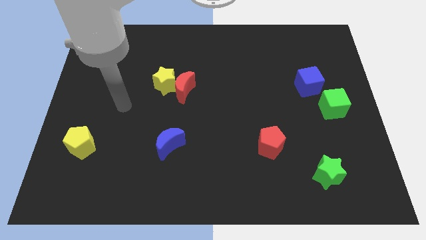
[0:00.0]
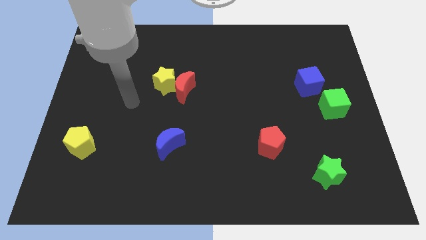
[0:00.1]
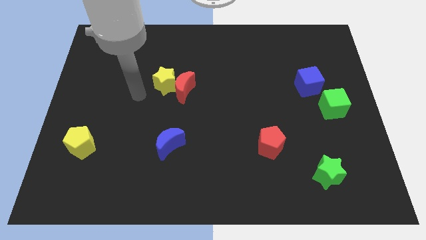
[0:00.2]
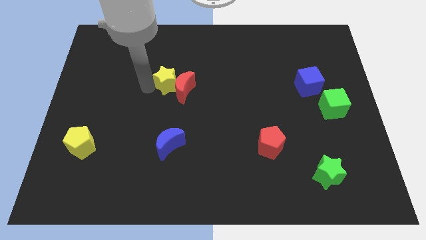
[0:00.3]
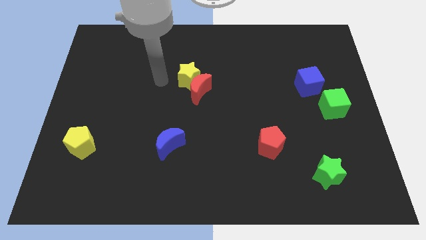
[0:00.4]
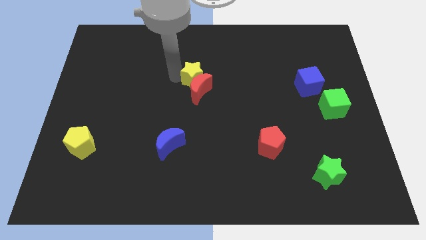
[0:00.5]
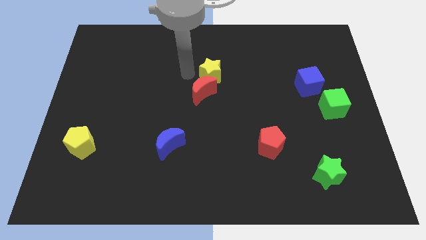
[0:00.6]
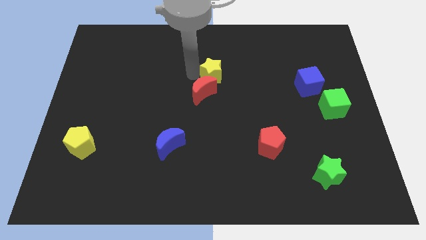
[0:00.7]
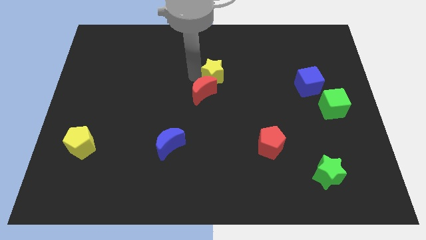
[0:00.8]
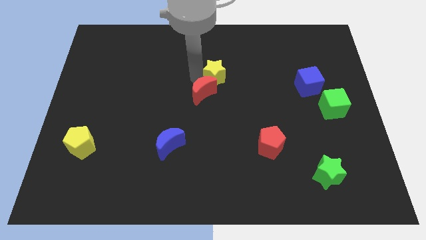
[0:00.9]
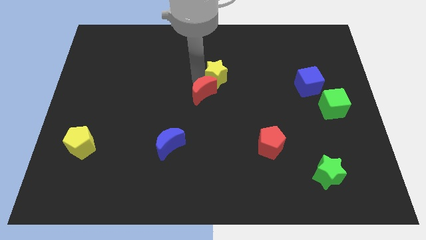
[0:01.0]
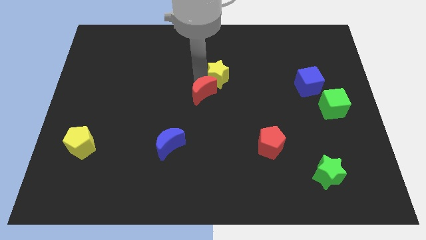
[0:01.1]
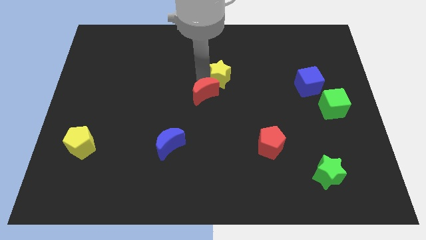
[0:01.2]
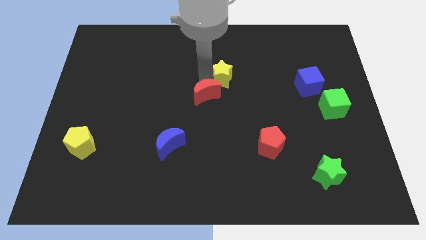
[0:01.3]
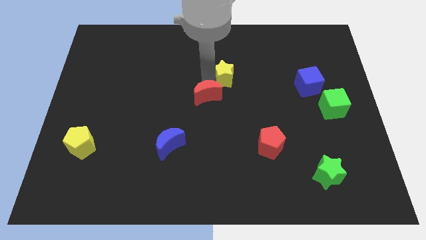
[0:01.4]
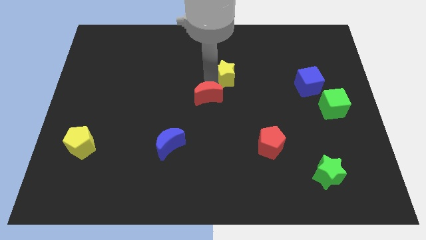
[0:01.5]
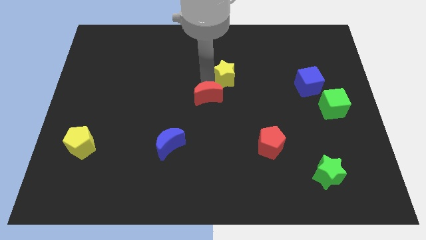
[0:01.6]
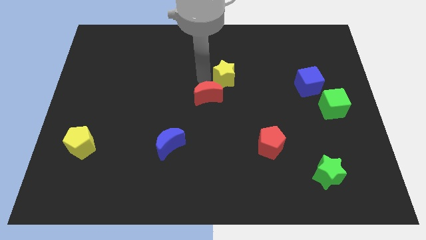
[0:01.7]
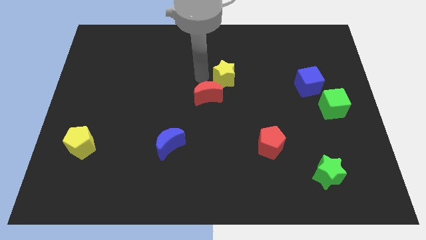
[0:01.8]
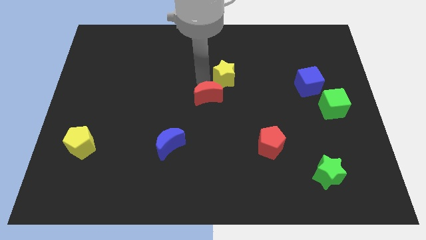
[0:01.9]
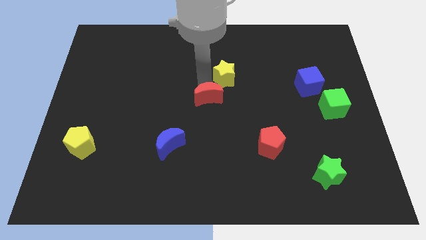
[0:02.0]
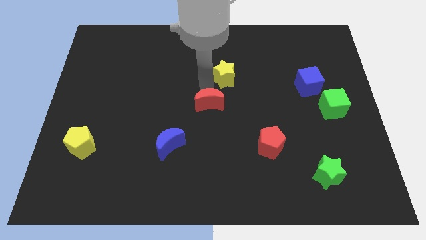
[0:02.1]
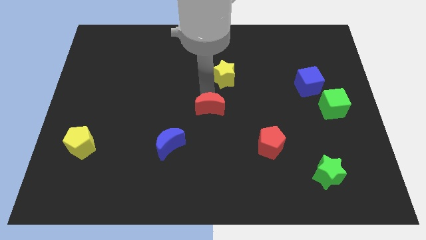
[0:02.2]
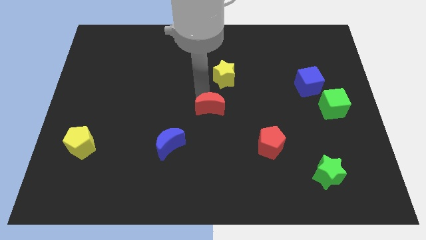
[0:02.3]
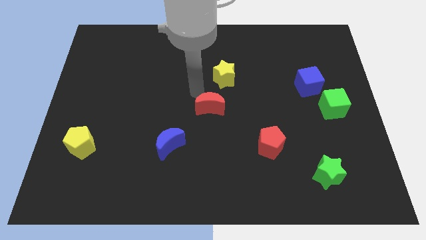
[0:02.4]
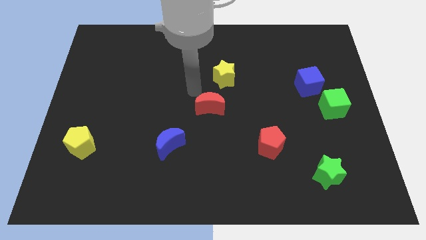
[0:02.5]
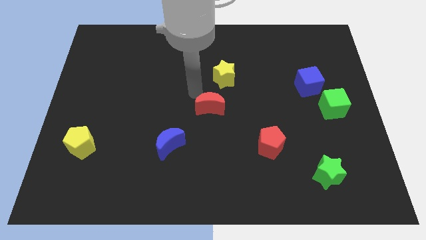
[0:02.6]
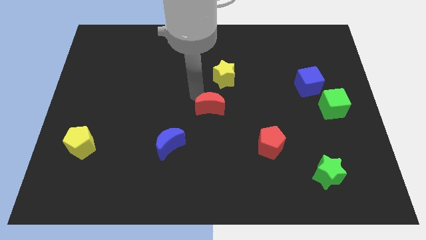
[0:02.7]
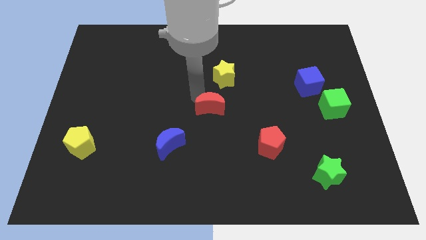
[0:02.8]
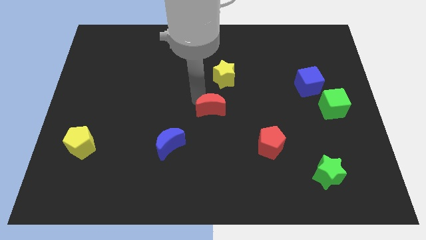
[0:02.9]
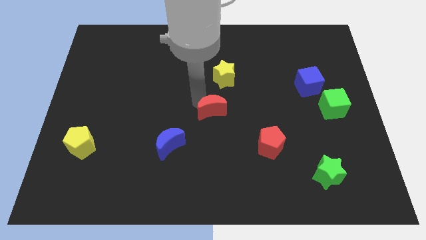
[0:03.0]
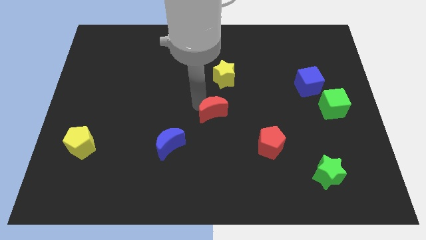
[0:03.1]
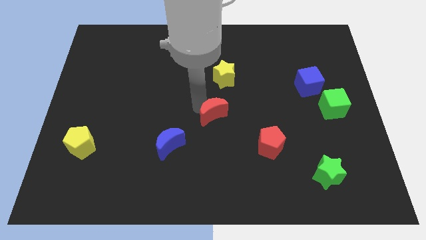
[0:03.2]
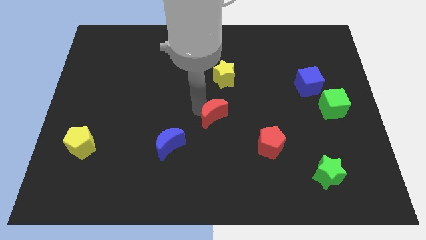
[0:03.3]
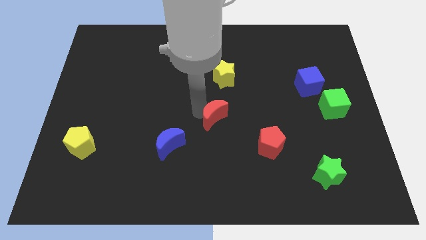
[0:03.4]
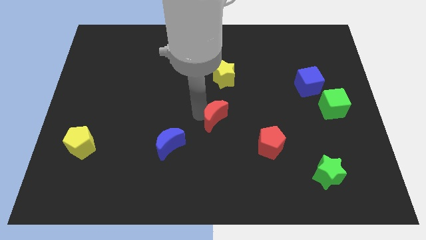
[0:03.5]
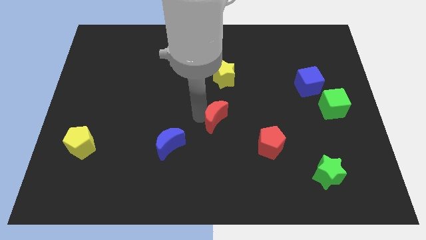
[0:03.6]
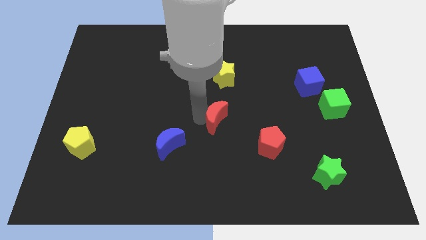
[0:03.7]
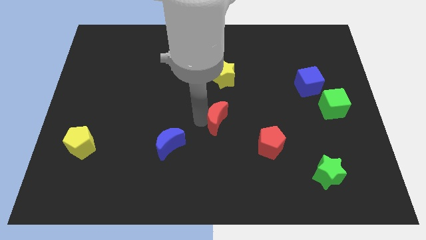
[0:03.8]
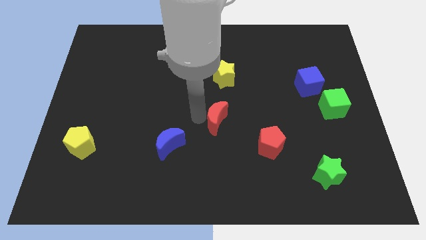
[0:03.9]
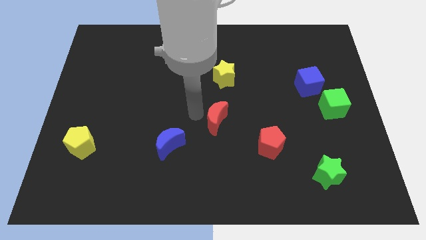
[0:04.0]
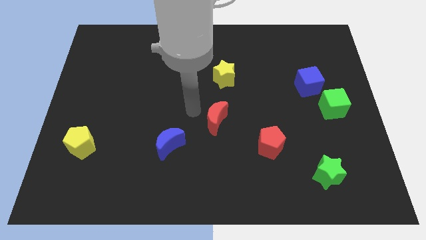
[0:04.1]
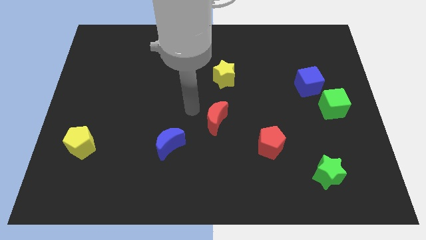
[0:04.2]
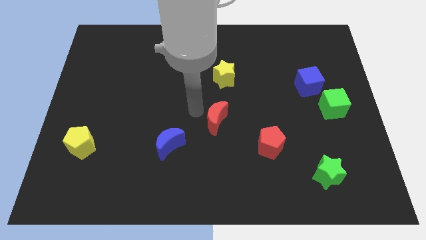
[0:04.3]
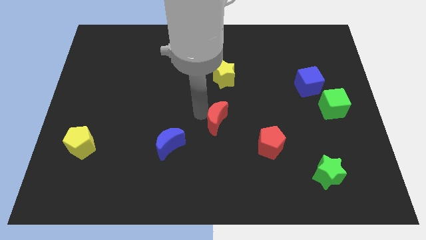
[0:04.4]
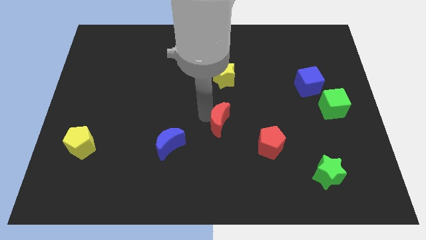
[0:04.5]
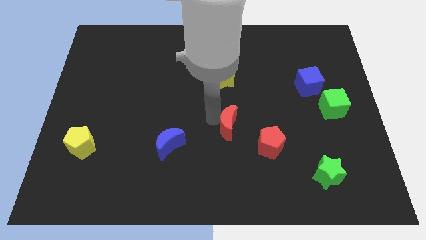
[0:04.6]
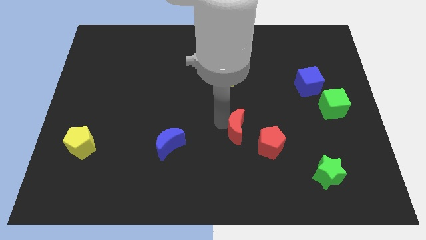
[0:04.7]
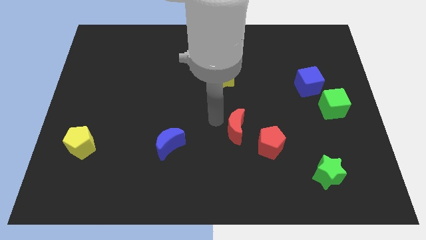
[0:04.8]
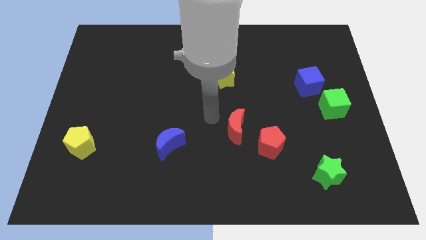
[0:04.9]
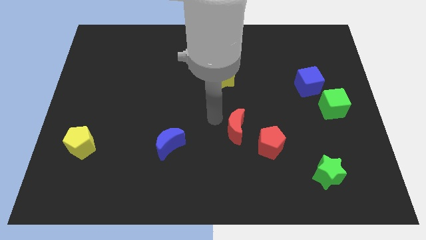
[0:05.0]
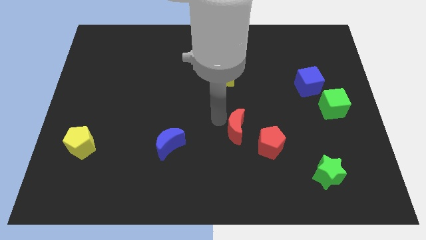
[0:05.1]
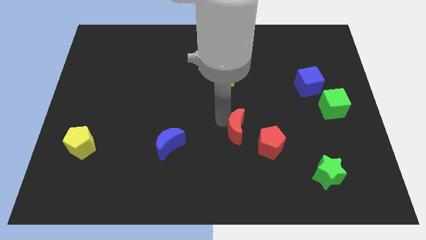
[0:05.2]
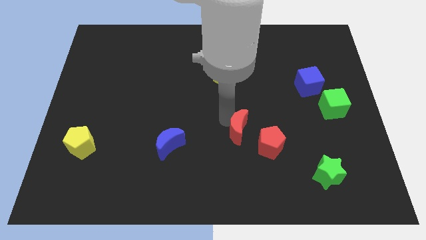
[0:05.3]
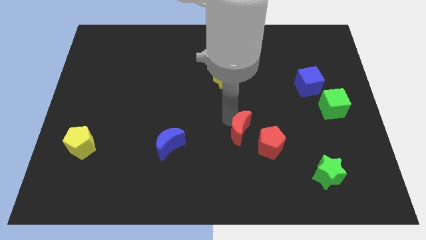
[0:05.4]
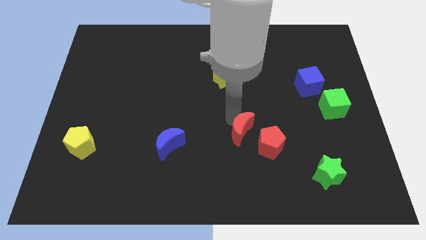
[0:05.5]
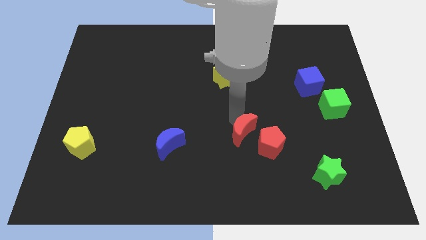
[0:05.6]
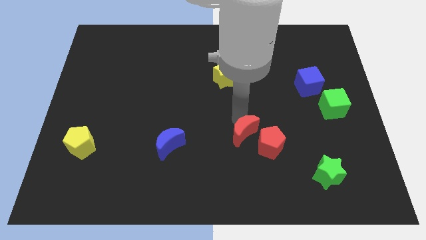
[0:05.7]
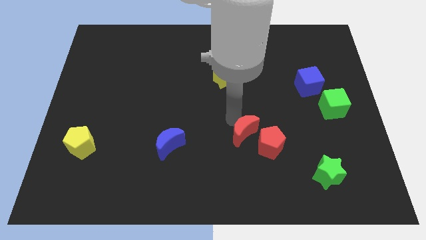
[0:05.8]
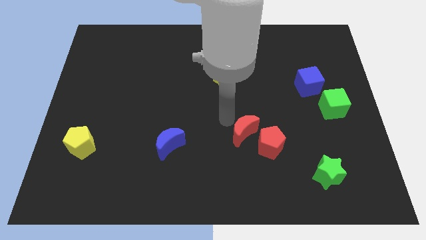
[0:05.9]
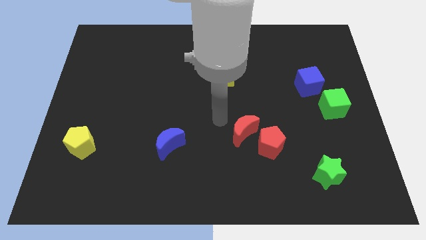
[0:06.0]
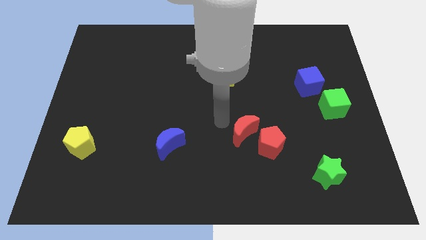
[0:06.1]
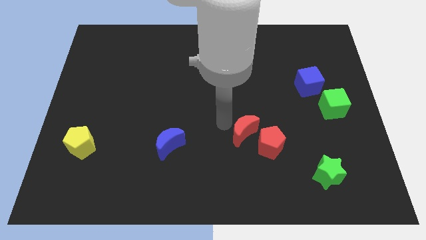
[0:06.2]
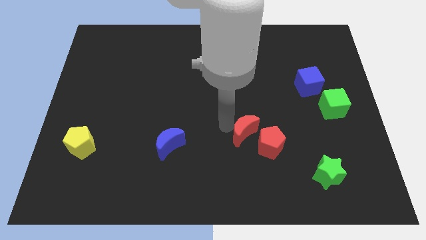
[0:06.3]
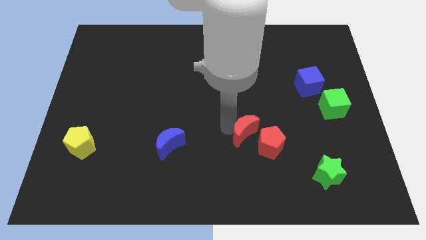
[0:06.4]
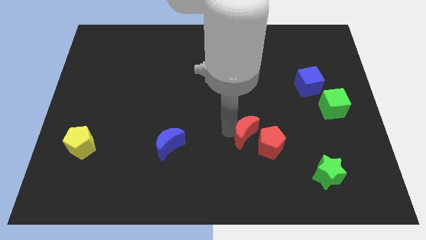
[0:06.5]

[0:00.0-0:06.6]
move the red moon towards the red pentagon

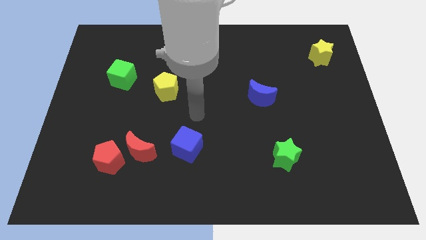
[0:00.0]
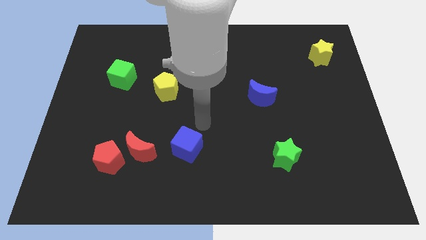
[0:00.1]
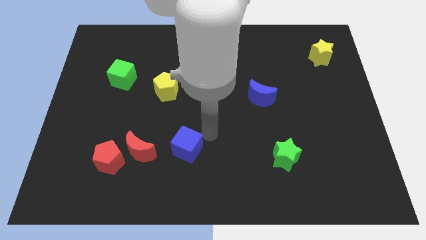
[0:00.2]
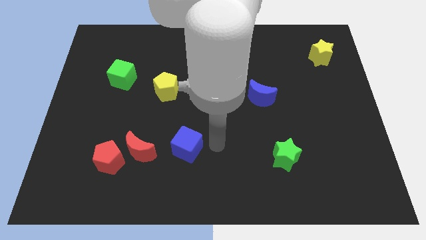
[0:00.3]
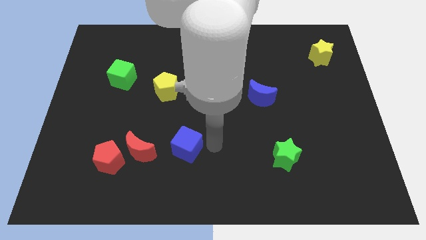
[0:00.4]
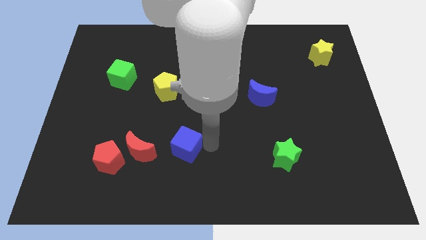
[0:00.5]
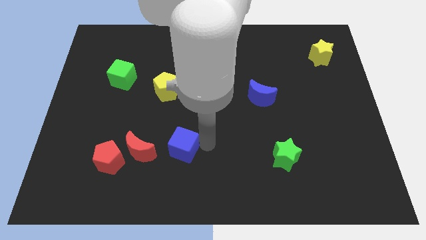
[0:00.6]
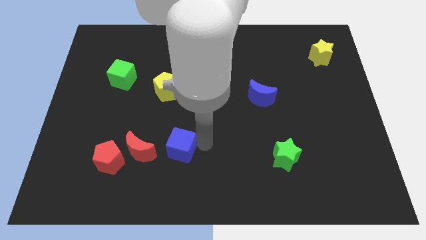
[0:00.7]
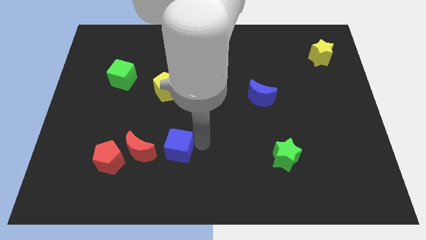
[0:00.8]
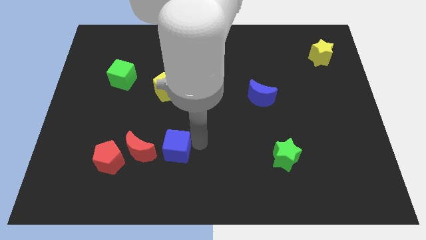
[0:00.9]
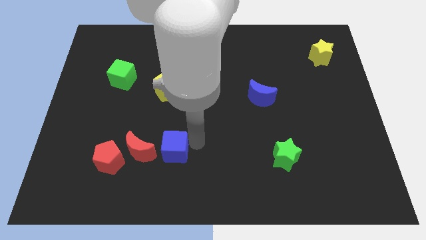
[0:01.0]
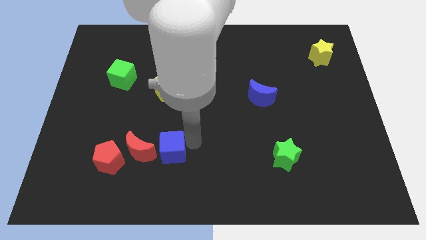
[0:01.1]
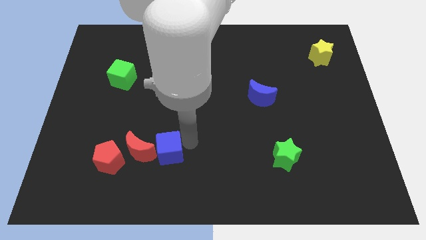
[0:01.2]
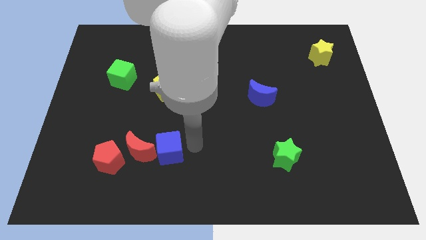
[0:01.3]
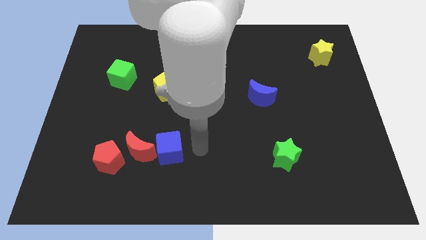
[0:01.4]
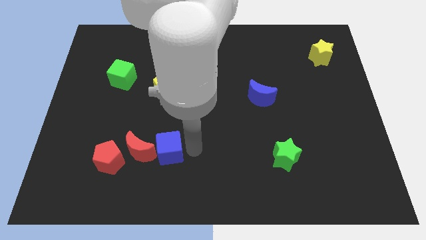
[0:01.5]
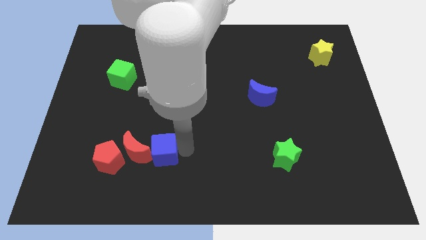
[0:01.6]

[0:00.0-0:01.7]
move the blue cube towards the red moon
